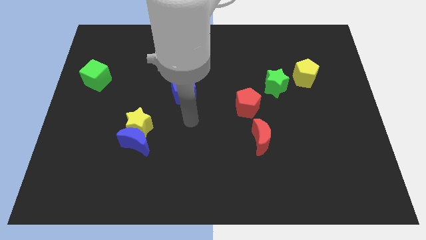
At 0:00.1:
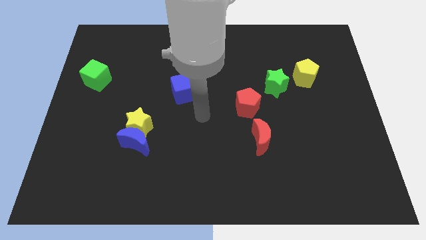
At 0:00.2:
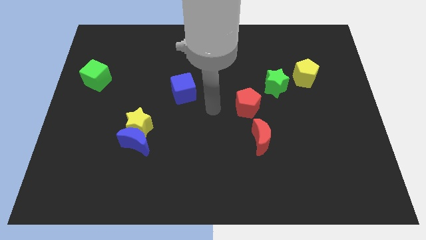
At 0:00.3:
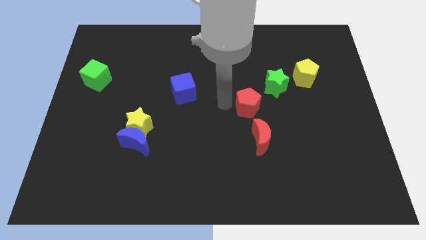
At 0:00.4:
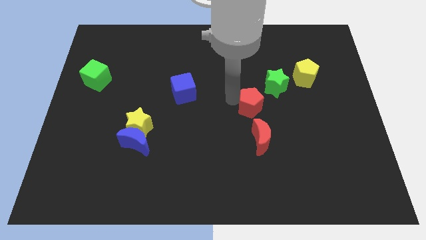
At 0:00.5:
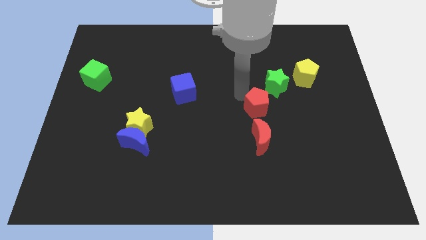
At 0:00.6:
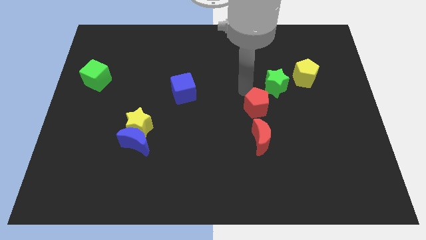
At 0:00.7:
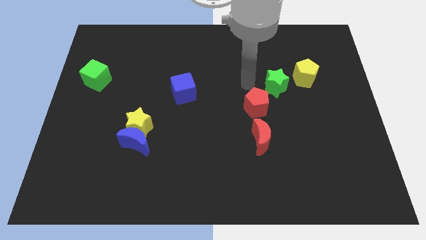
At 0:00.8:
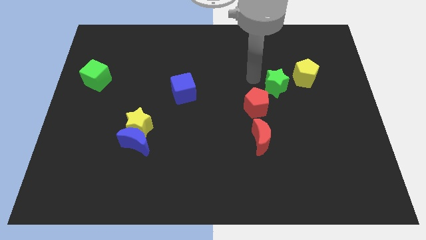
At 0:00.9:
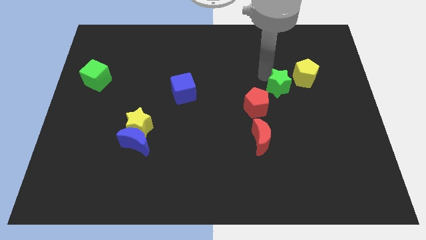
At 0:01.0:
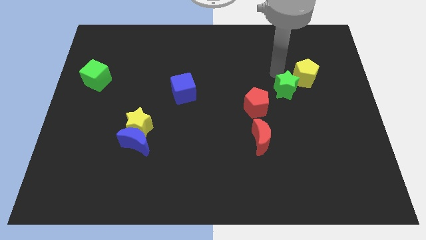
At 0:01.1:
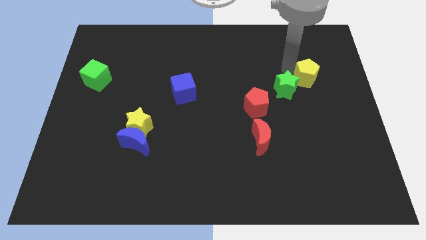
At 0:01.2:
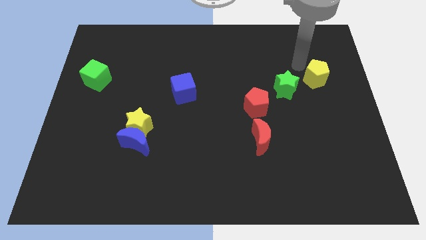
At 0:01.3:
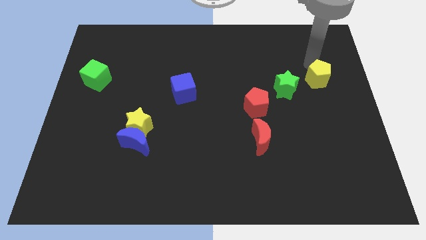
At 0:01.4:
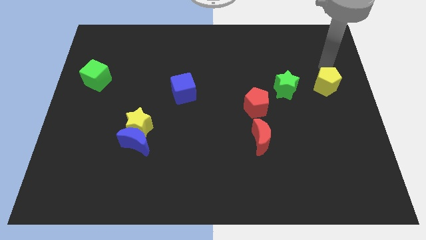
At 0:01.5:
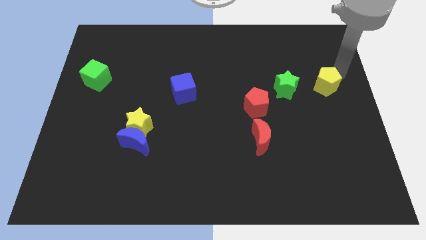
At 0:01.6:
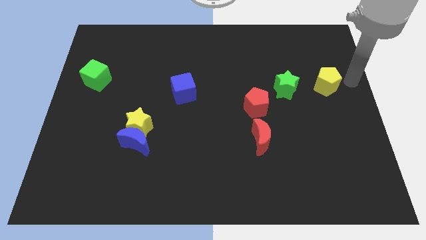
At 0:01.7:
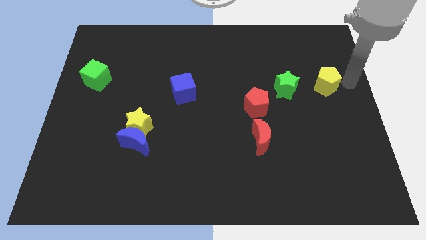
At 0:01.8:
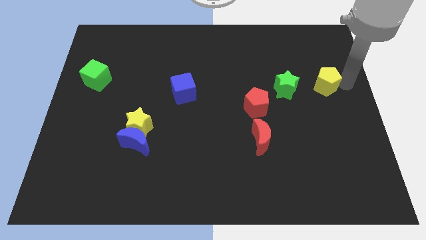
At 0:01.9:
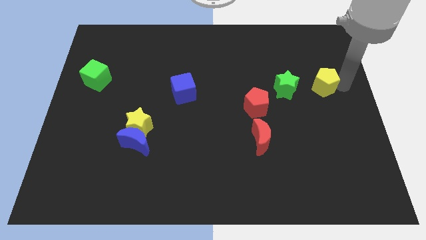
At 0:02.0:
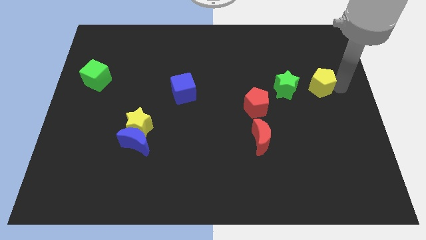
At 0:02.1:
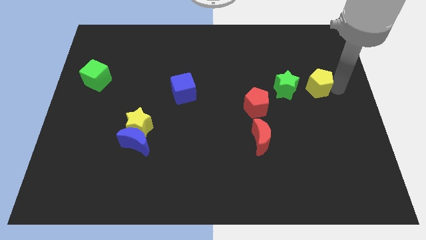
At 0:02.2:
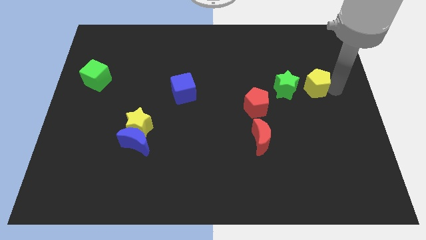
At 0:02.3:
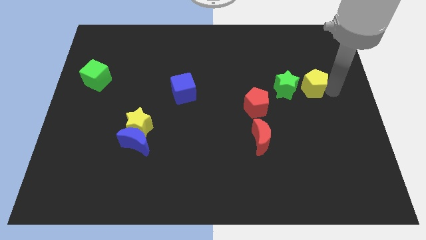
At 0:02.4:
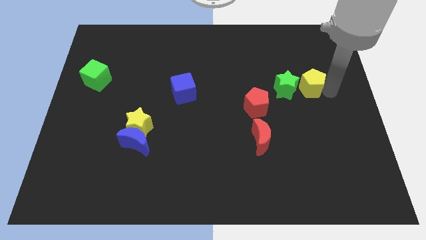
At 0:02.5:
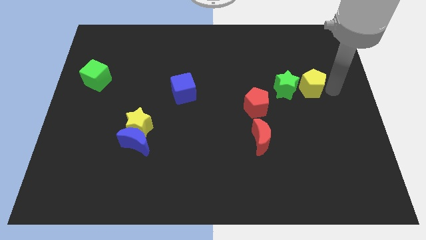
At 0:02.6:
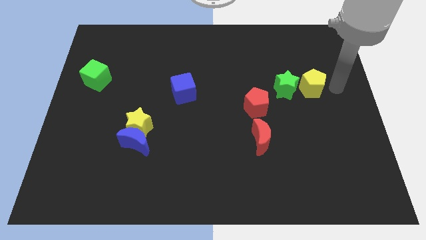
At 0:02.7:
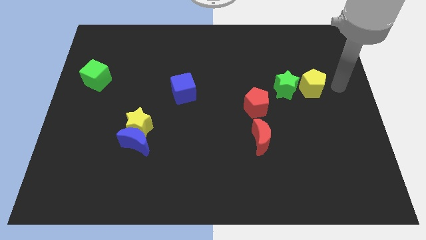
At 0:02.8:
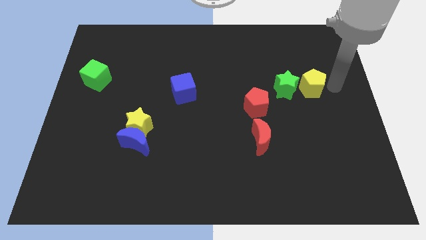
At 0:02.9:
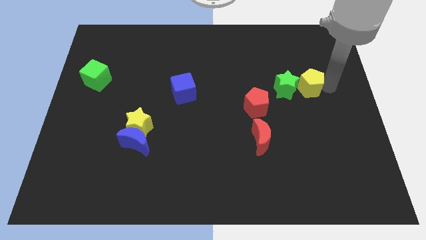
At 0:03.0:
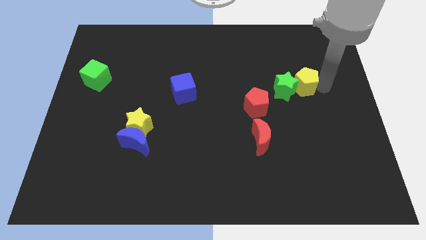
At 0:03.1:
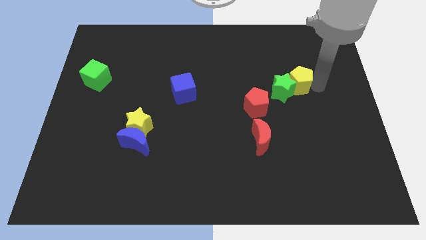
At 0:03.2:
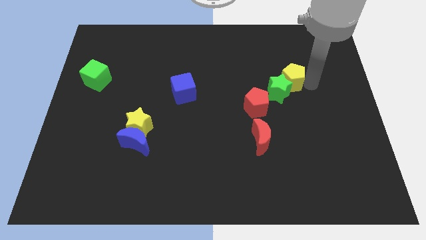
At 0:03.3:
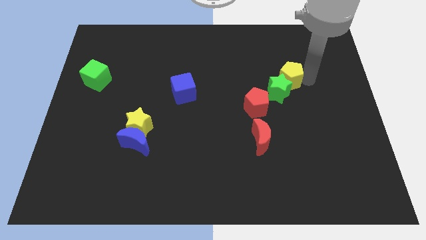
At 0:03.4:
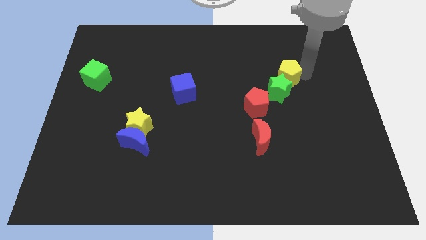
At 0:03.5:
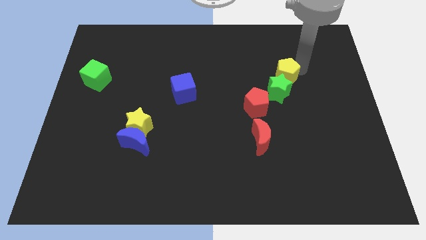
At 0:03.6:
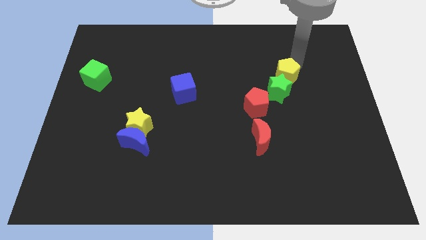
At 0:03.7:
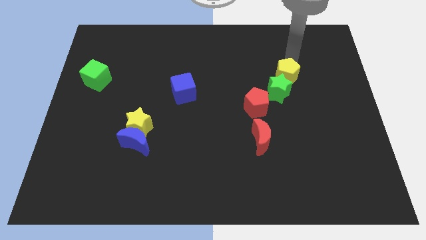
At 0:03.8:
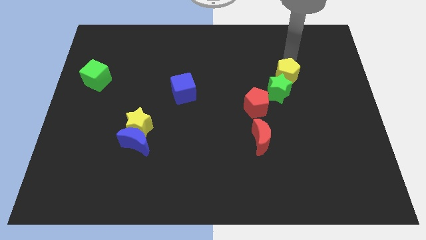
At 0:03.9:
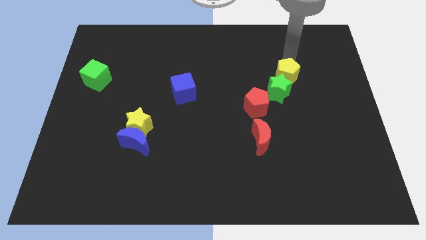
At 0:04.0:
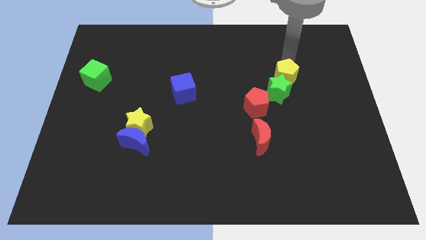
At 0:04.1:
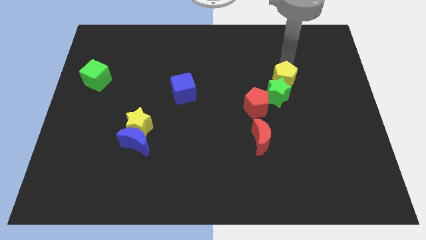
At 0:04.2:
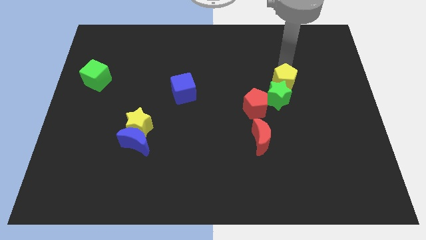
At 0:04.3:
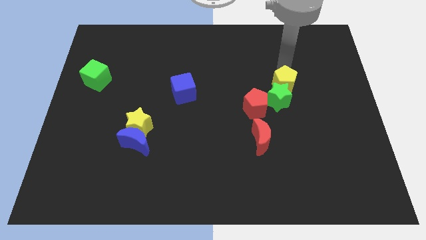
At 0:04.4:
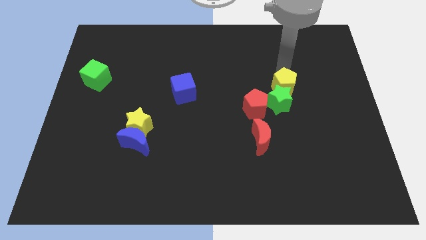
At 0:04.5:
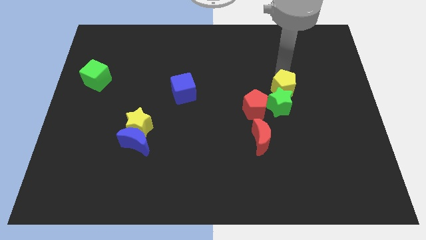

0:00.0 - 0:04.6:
slightly slide the yellow pentagon downwards and to the left

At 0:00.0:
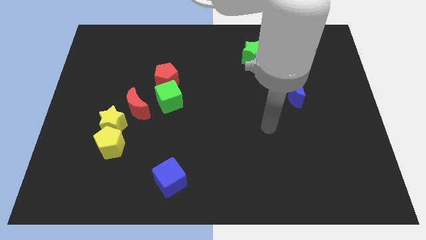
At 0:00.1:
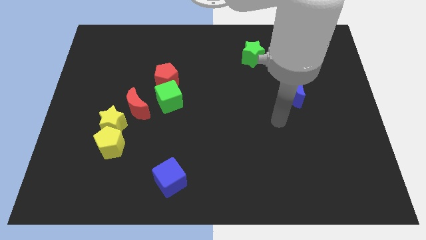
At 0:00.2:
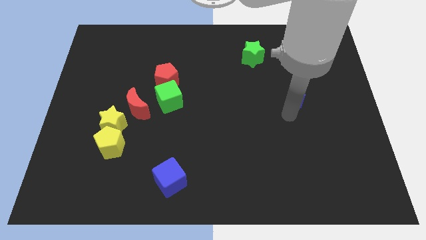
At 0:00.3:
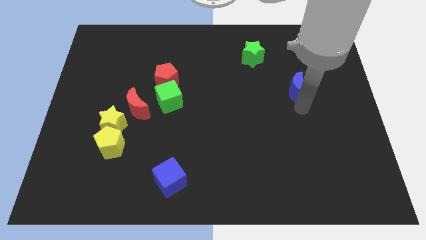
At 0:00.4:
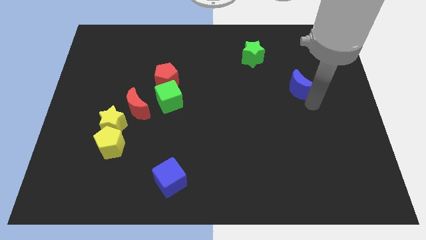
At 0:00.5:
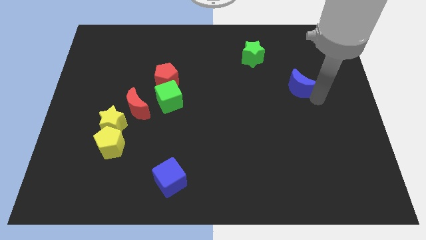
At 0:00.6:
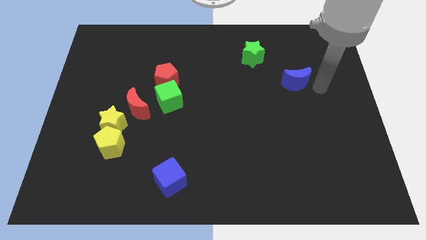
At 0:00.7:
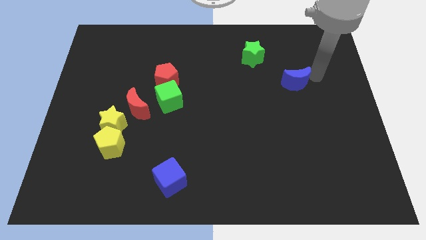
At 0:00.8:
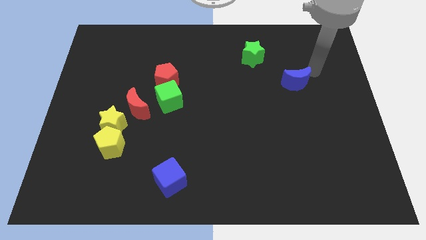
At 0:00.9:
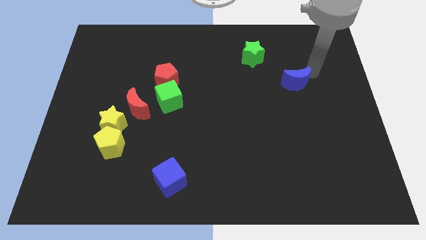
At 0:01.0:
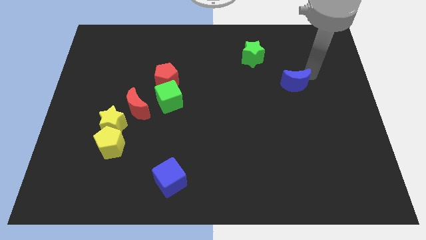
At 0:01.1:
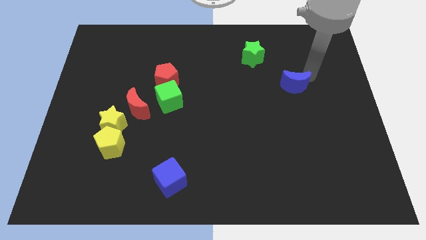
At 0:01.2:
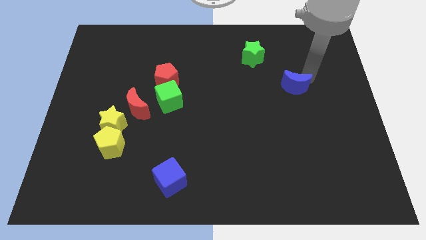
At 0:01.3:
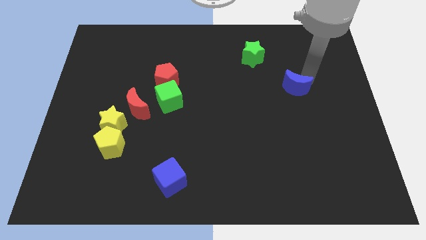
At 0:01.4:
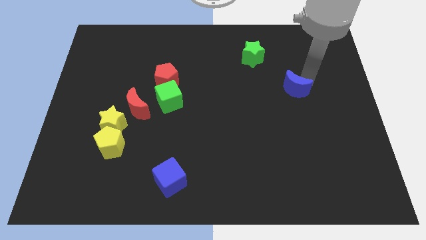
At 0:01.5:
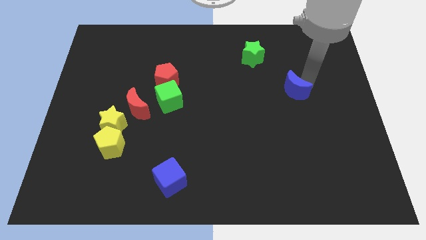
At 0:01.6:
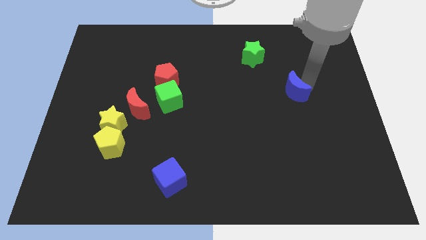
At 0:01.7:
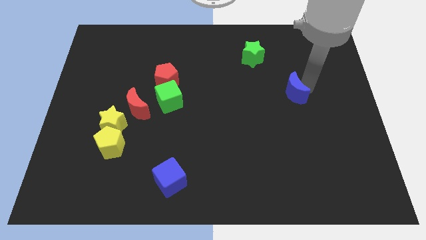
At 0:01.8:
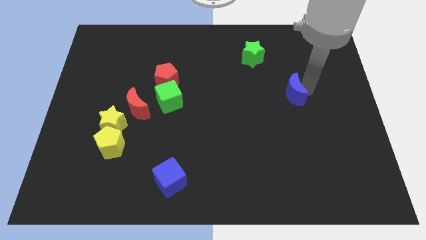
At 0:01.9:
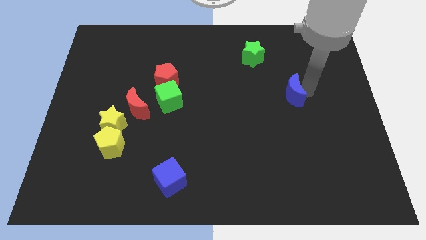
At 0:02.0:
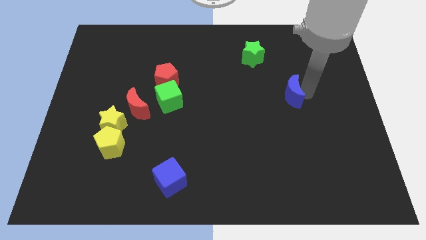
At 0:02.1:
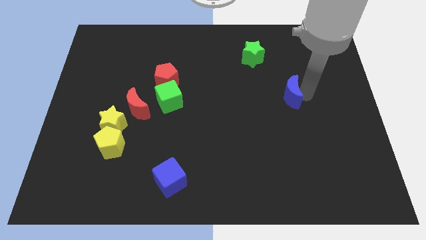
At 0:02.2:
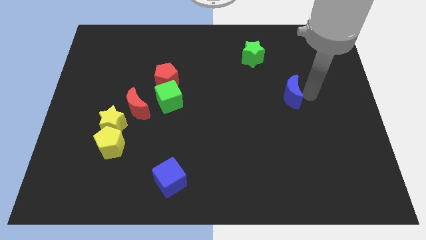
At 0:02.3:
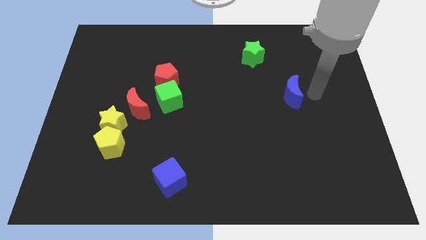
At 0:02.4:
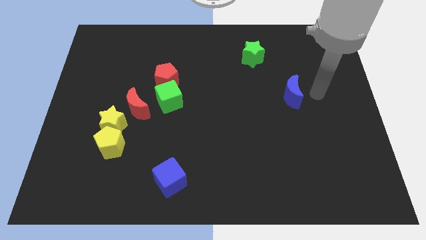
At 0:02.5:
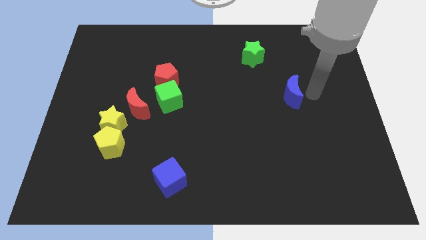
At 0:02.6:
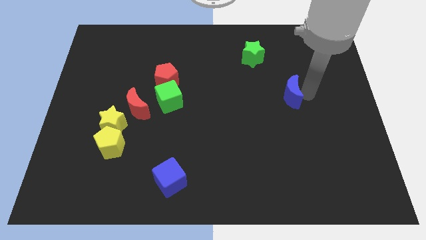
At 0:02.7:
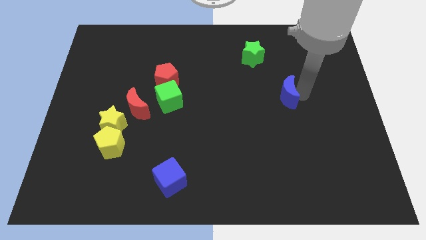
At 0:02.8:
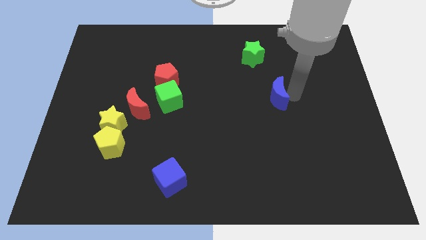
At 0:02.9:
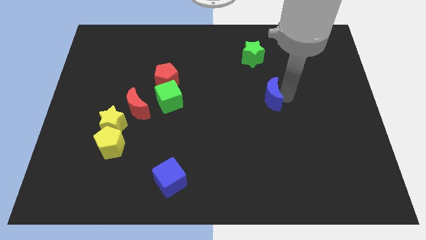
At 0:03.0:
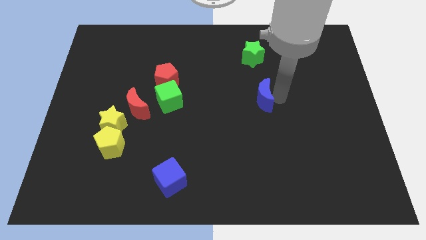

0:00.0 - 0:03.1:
push the blue moon somewhat to the left

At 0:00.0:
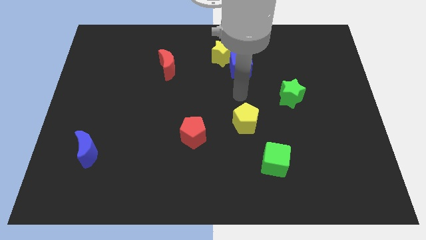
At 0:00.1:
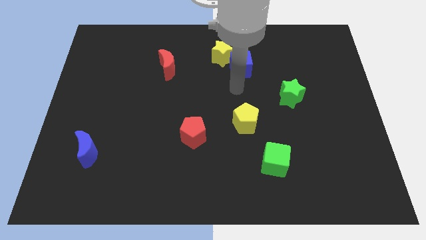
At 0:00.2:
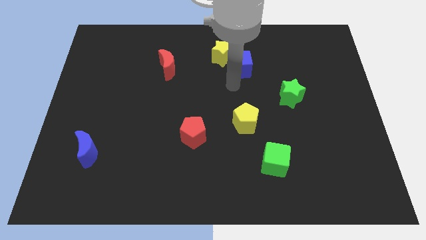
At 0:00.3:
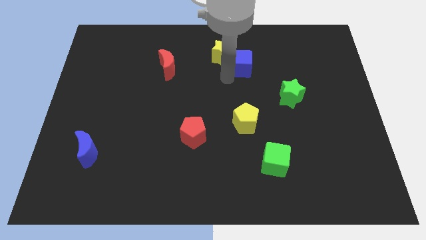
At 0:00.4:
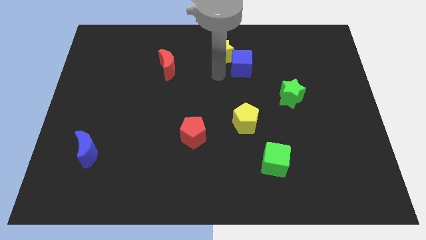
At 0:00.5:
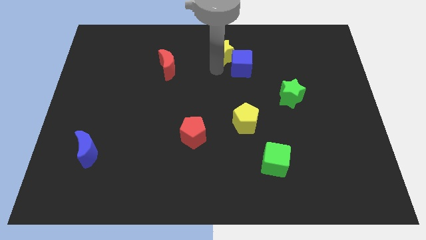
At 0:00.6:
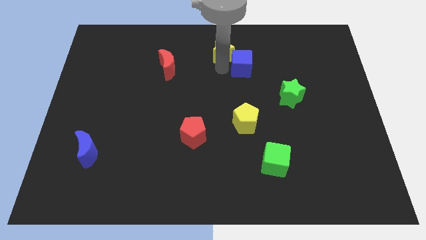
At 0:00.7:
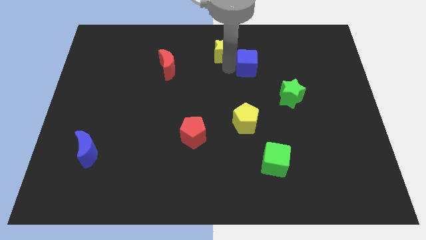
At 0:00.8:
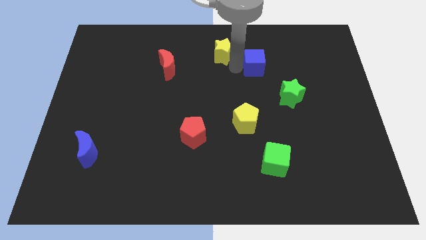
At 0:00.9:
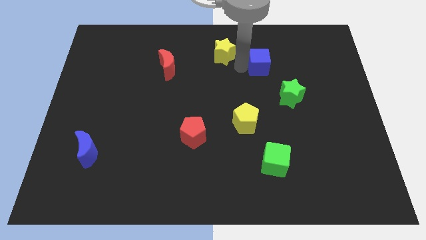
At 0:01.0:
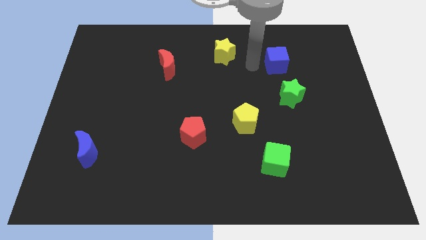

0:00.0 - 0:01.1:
slightly push the blue cube to the right
